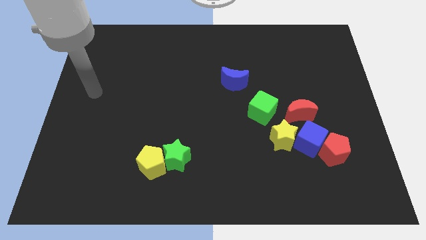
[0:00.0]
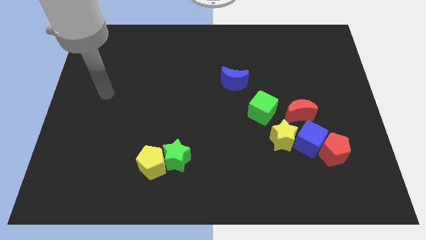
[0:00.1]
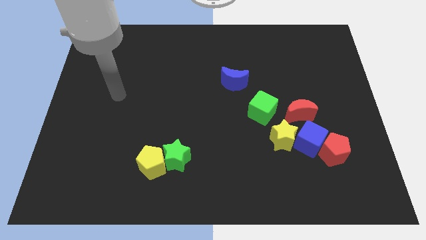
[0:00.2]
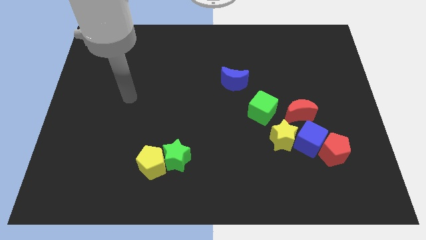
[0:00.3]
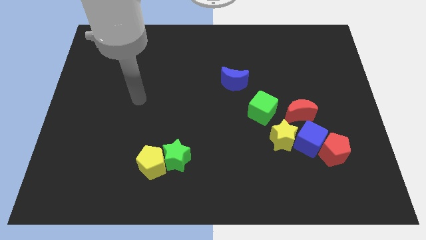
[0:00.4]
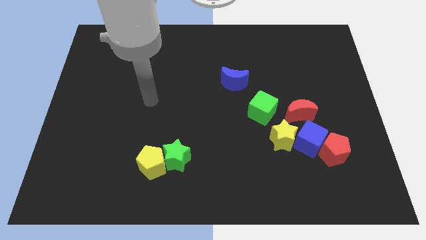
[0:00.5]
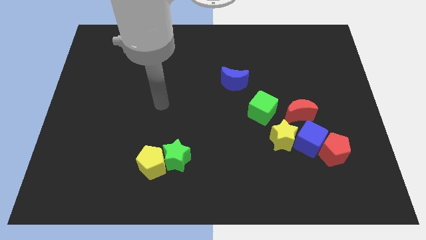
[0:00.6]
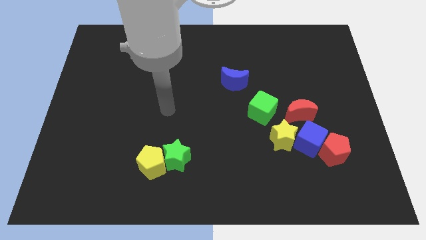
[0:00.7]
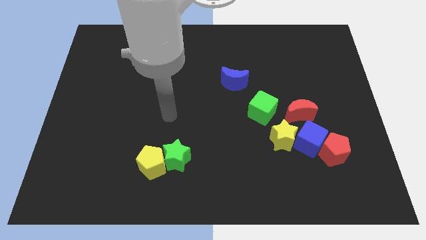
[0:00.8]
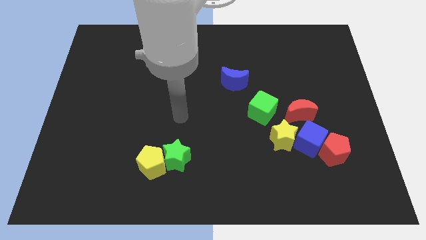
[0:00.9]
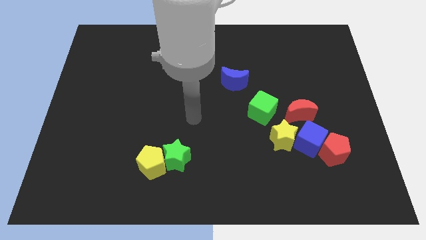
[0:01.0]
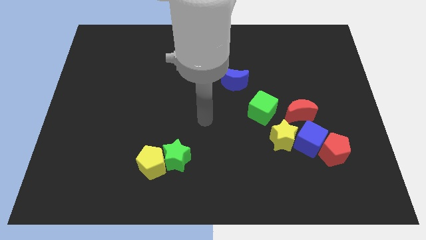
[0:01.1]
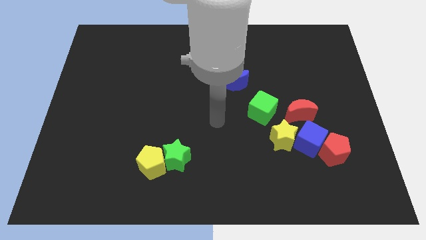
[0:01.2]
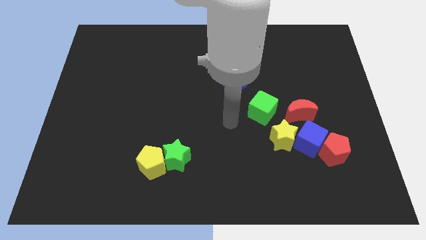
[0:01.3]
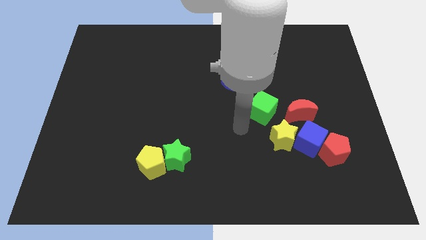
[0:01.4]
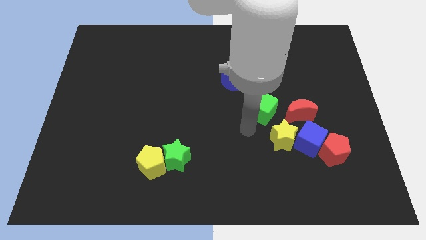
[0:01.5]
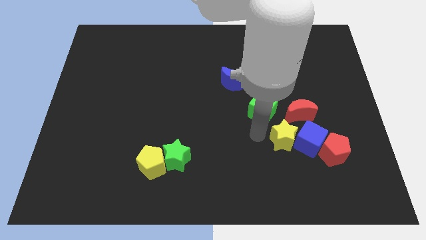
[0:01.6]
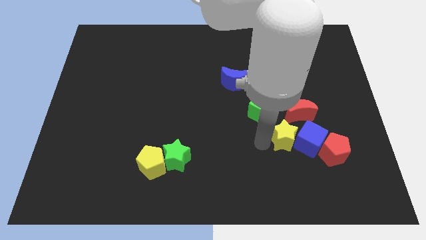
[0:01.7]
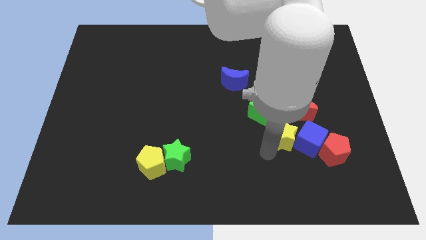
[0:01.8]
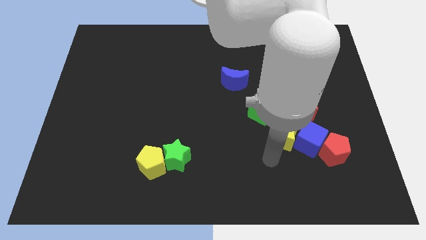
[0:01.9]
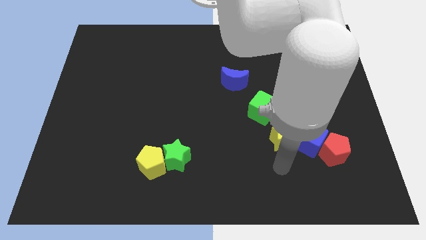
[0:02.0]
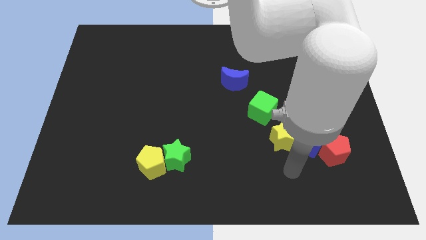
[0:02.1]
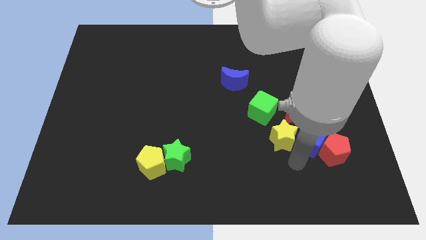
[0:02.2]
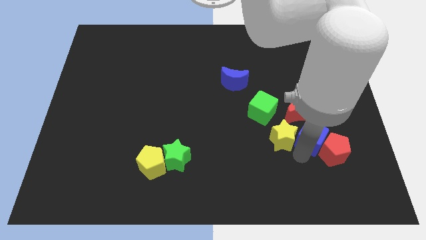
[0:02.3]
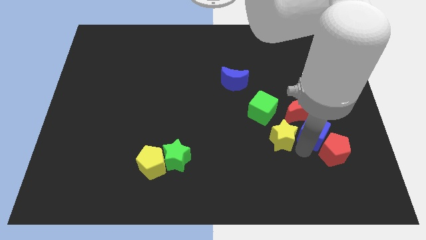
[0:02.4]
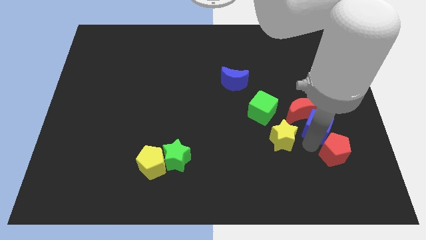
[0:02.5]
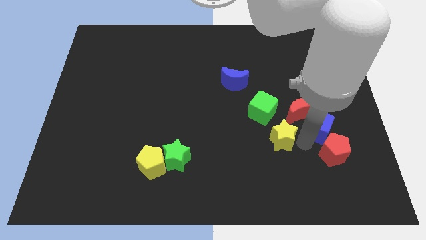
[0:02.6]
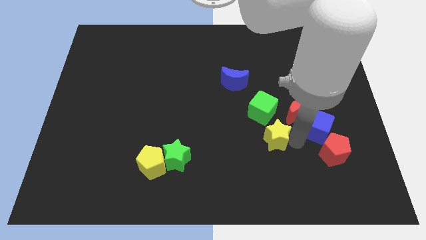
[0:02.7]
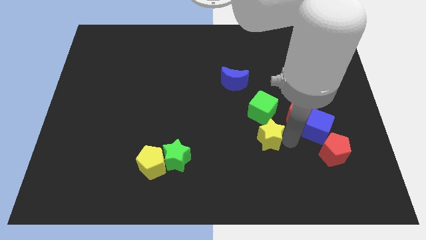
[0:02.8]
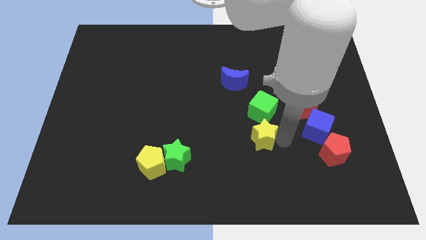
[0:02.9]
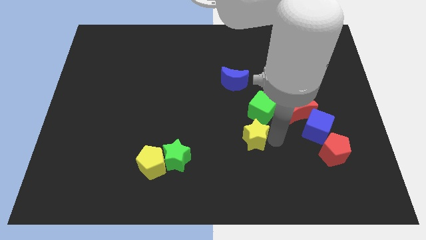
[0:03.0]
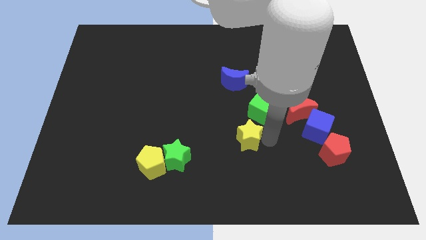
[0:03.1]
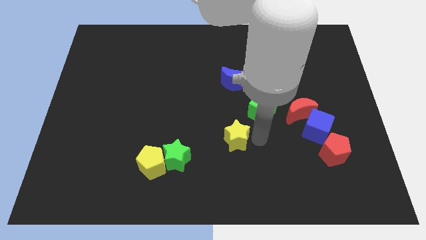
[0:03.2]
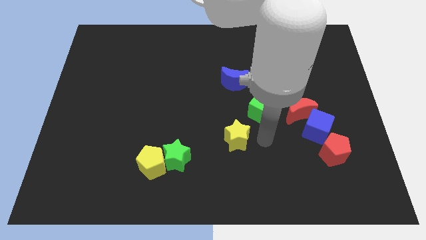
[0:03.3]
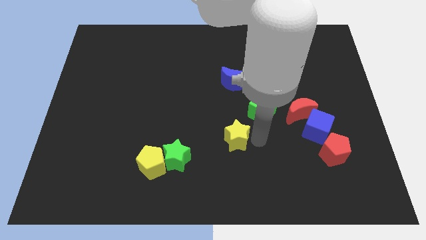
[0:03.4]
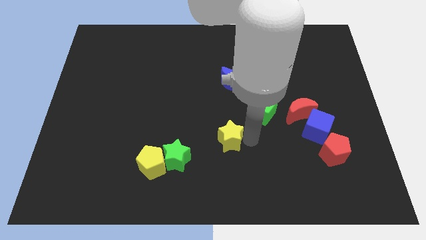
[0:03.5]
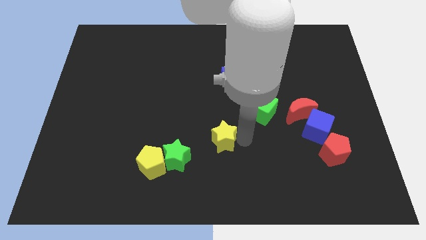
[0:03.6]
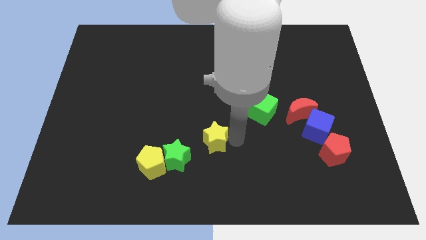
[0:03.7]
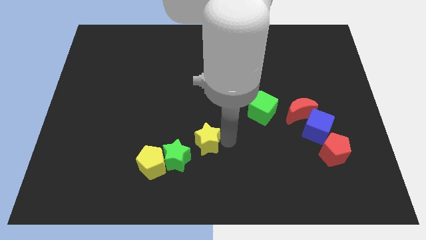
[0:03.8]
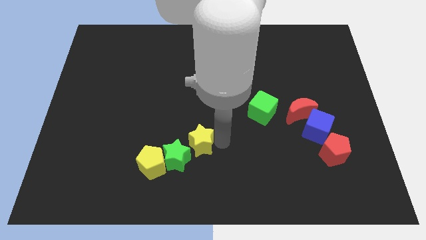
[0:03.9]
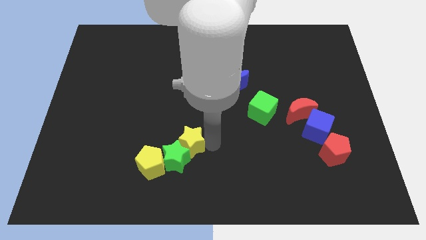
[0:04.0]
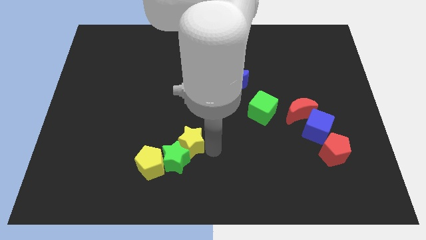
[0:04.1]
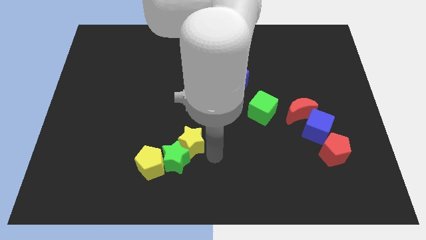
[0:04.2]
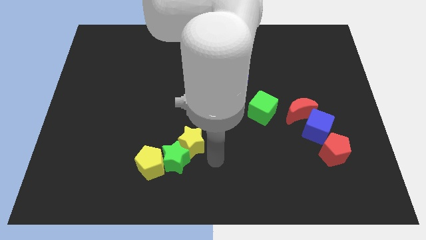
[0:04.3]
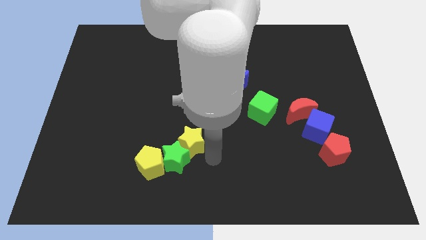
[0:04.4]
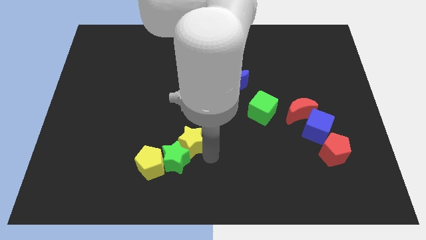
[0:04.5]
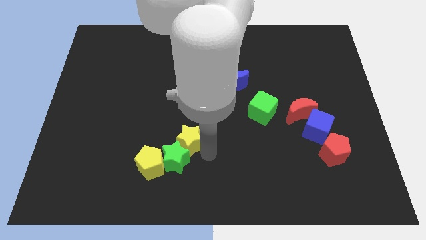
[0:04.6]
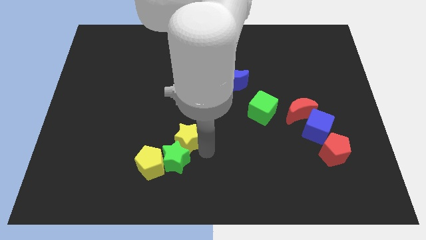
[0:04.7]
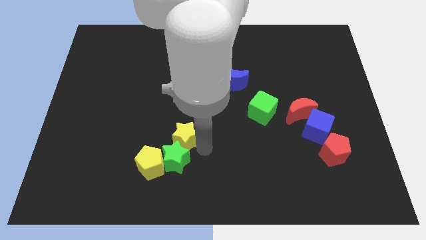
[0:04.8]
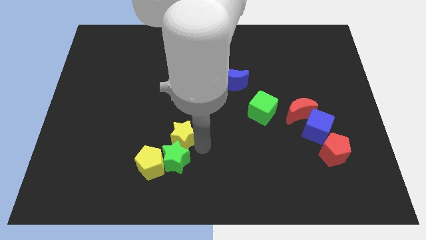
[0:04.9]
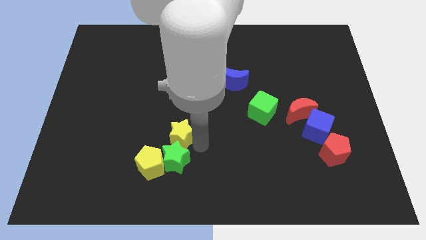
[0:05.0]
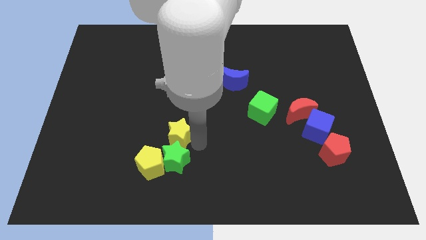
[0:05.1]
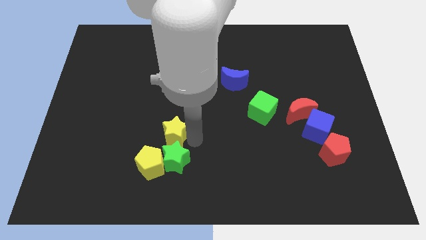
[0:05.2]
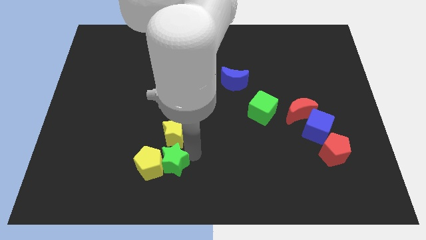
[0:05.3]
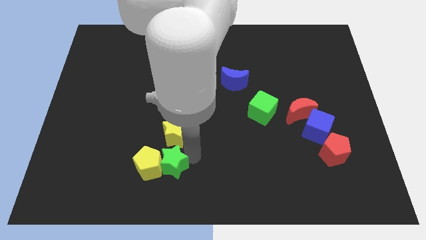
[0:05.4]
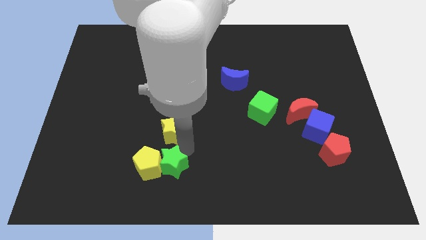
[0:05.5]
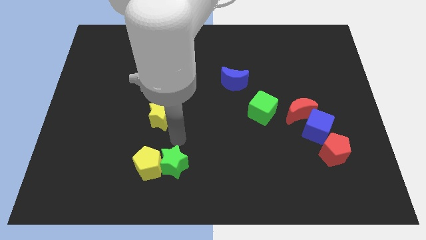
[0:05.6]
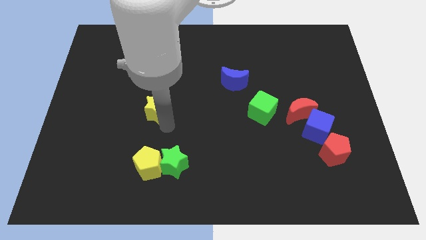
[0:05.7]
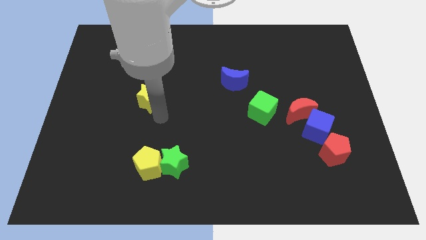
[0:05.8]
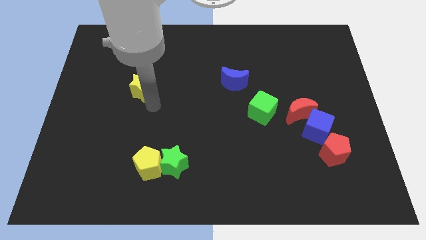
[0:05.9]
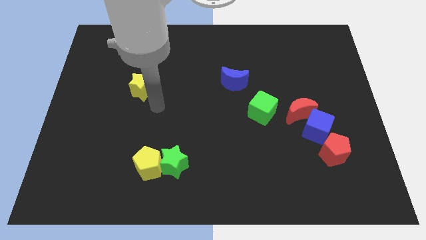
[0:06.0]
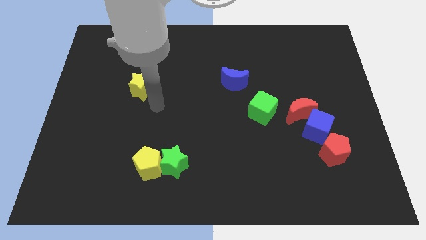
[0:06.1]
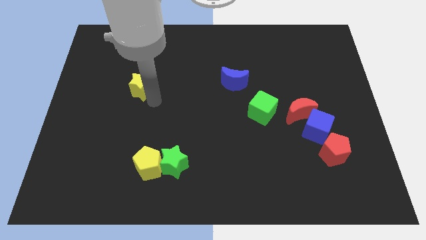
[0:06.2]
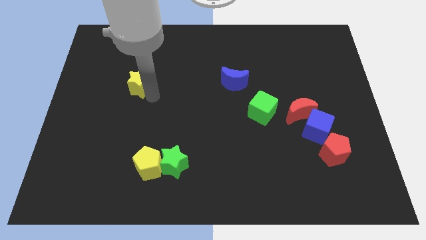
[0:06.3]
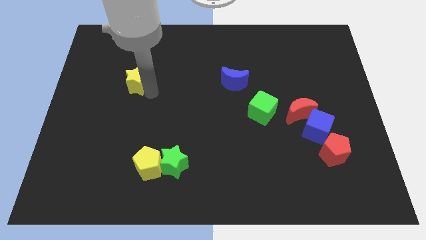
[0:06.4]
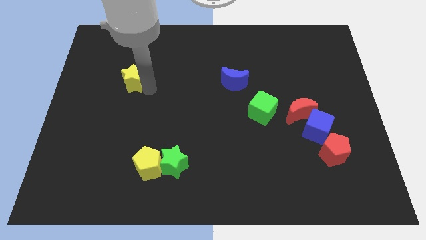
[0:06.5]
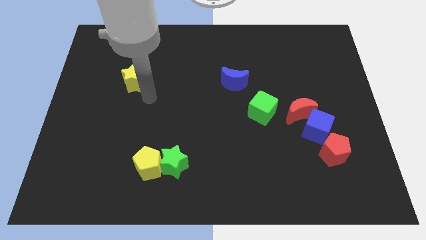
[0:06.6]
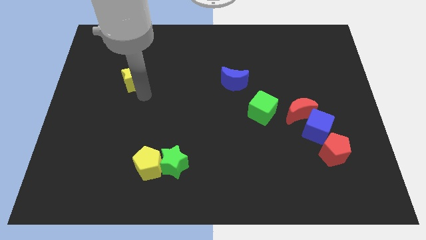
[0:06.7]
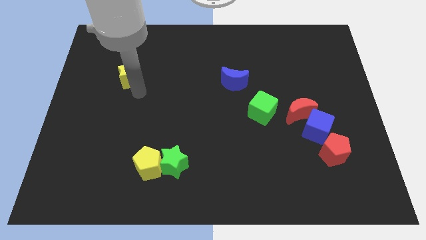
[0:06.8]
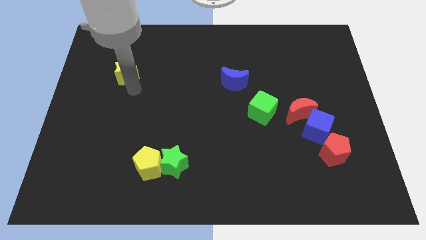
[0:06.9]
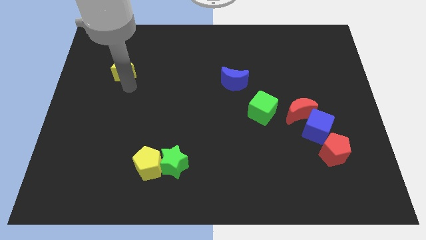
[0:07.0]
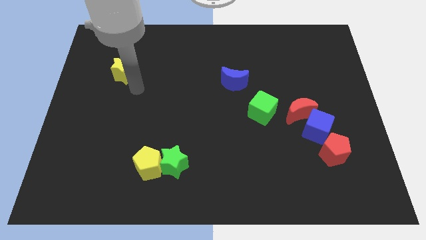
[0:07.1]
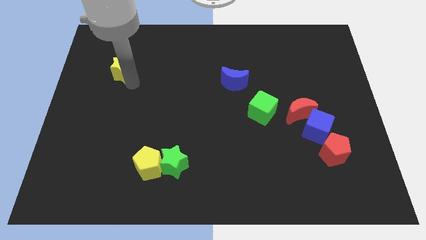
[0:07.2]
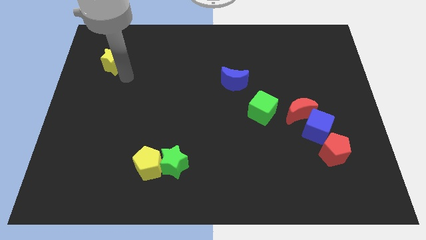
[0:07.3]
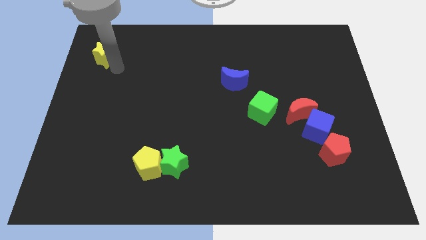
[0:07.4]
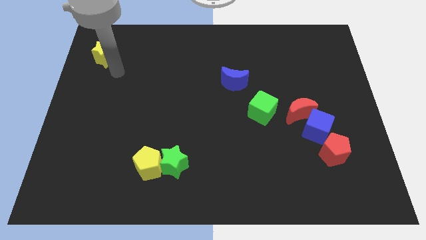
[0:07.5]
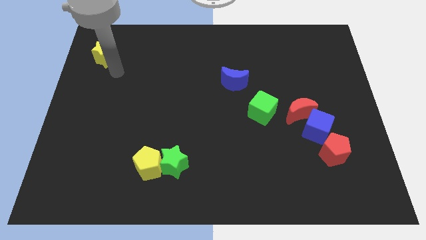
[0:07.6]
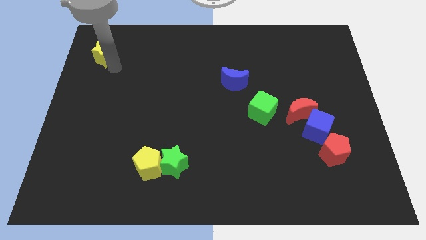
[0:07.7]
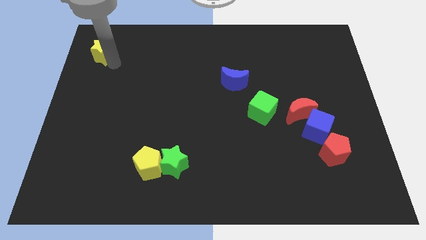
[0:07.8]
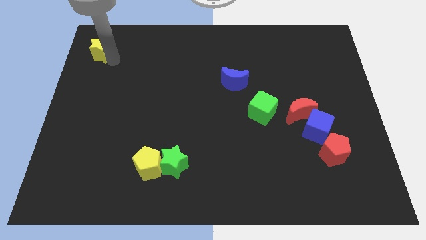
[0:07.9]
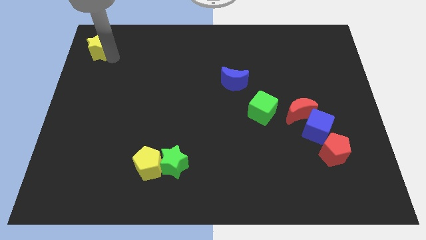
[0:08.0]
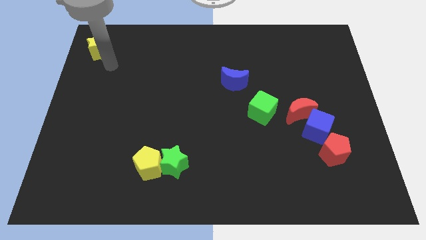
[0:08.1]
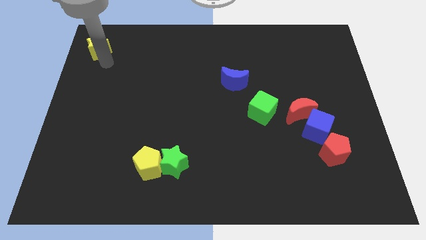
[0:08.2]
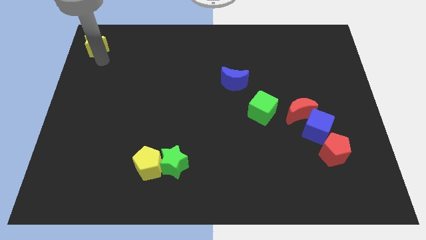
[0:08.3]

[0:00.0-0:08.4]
put the yellow star to the top left corner
